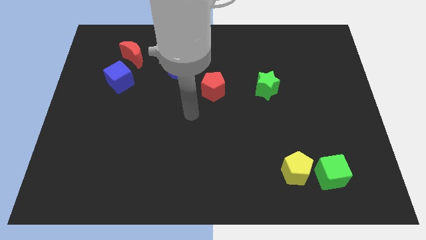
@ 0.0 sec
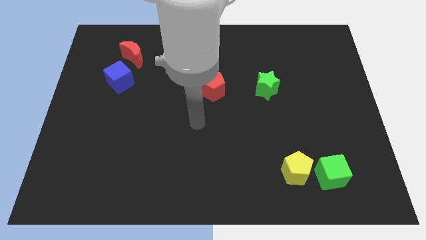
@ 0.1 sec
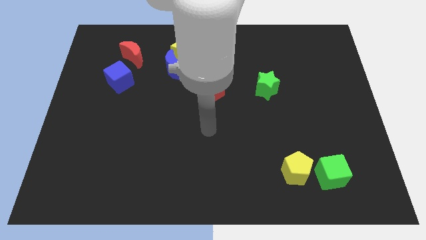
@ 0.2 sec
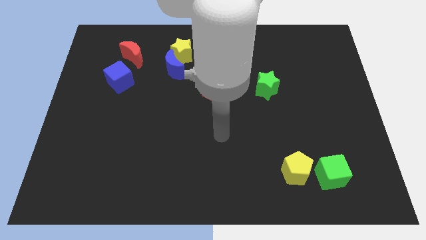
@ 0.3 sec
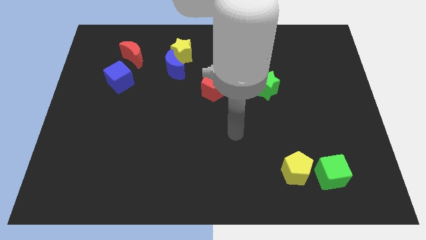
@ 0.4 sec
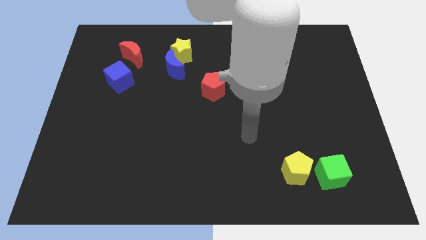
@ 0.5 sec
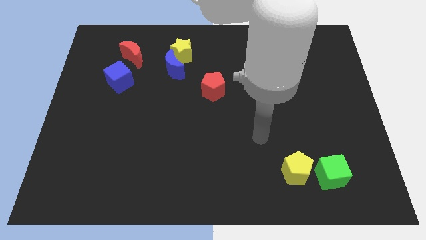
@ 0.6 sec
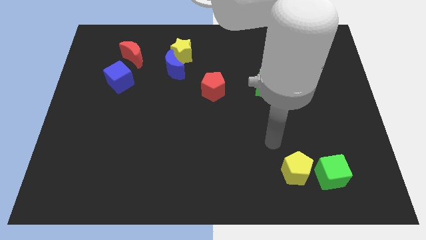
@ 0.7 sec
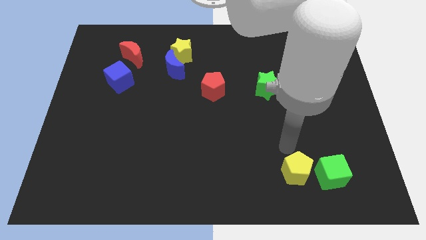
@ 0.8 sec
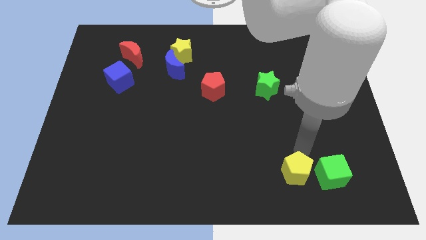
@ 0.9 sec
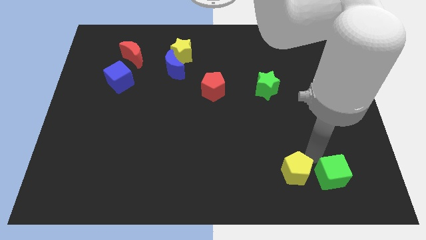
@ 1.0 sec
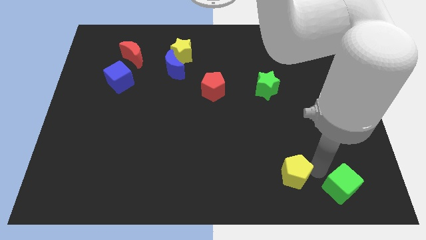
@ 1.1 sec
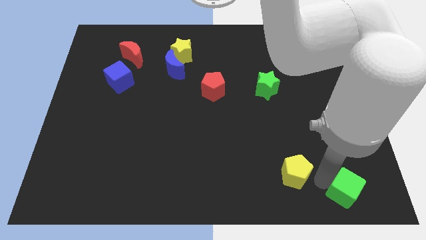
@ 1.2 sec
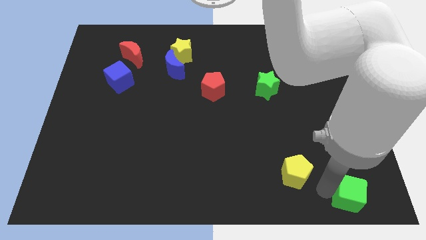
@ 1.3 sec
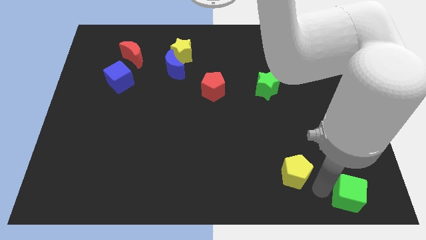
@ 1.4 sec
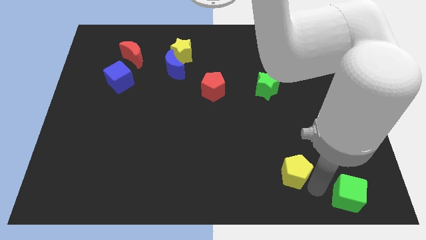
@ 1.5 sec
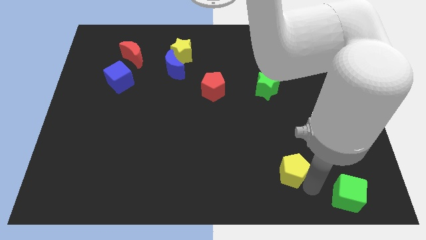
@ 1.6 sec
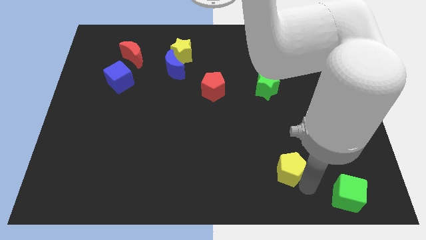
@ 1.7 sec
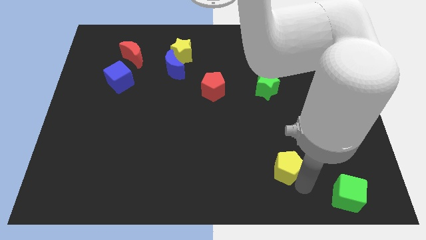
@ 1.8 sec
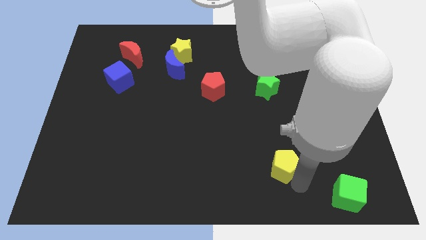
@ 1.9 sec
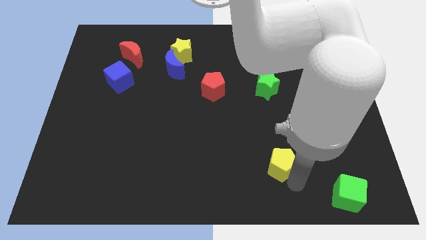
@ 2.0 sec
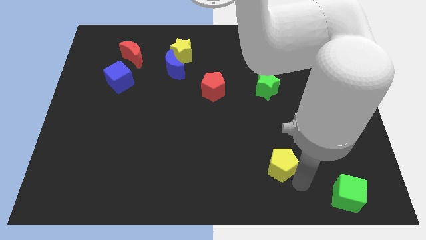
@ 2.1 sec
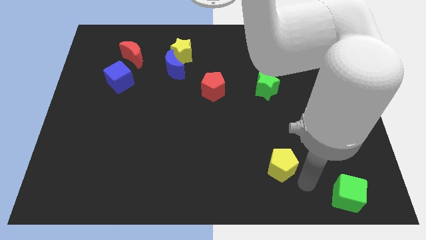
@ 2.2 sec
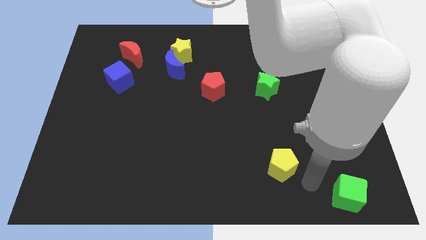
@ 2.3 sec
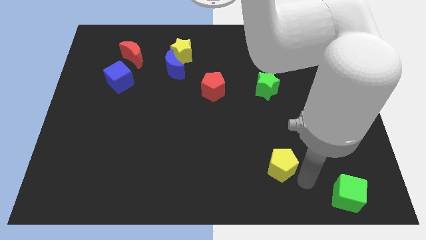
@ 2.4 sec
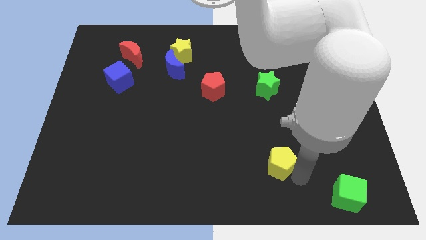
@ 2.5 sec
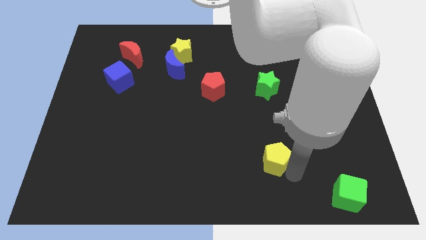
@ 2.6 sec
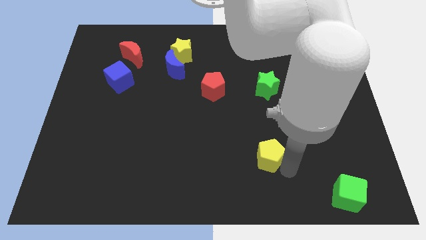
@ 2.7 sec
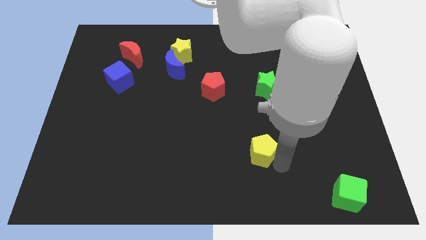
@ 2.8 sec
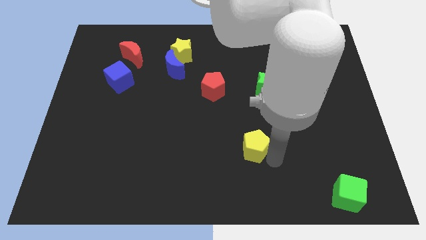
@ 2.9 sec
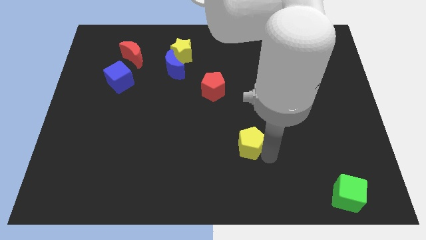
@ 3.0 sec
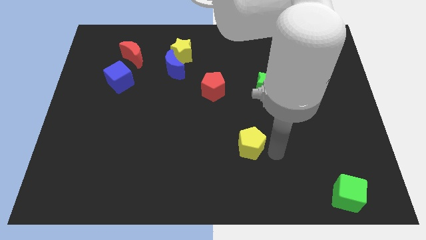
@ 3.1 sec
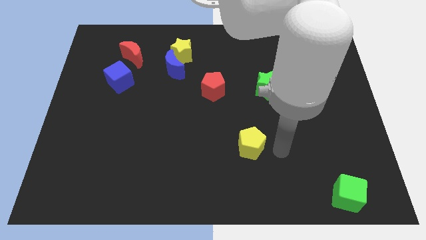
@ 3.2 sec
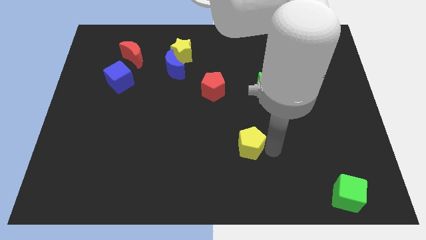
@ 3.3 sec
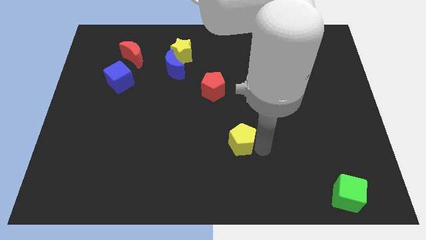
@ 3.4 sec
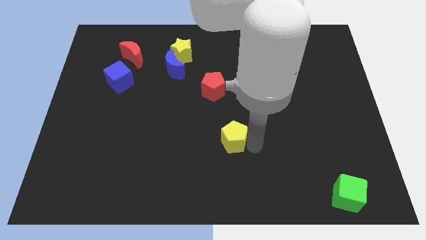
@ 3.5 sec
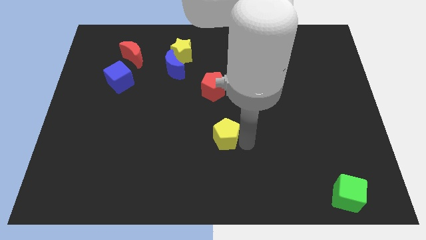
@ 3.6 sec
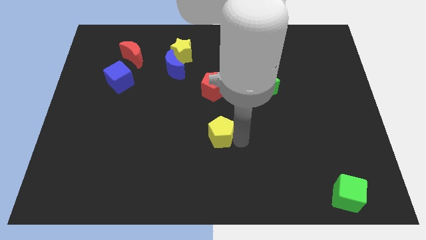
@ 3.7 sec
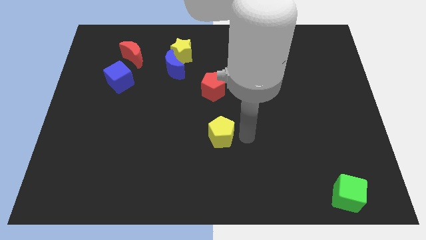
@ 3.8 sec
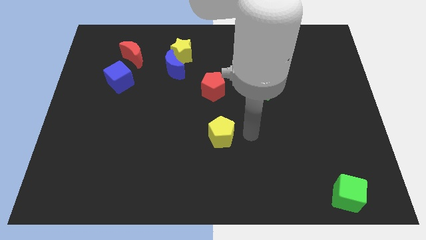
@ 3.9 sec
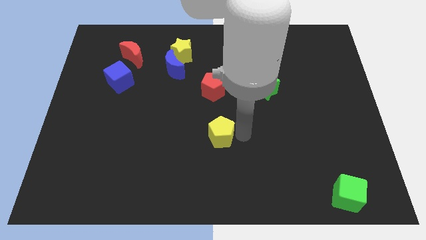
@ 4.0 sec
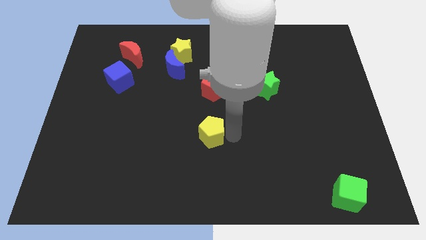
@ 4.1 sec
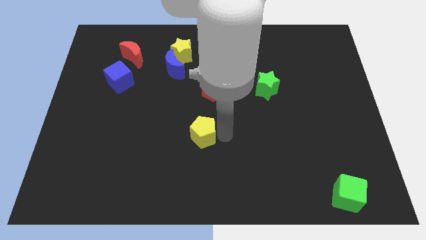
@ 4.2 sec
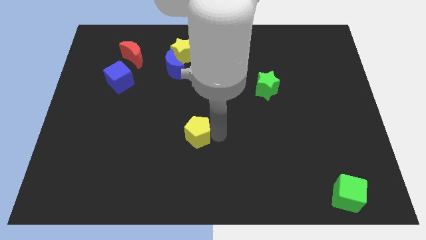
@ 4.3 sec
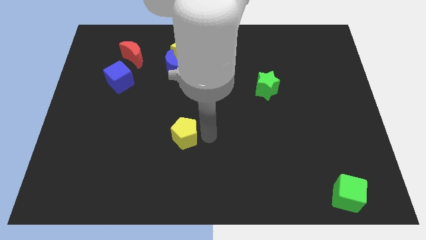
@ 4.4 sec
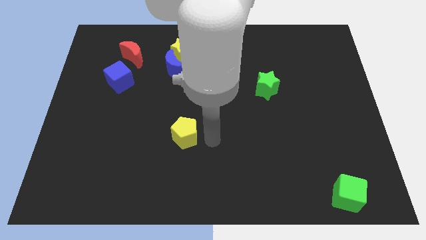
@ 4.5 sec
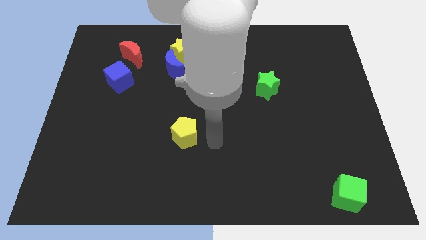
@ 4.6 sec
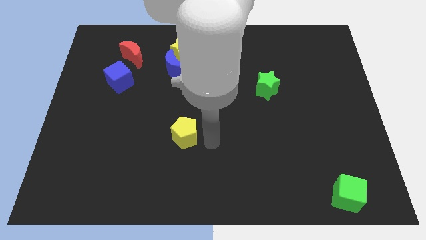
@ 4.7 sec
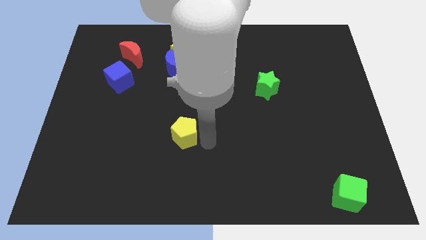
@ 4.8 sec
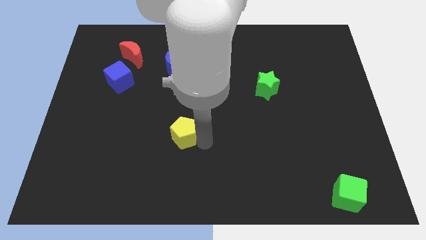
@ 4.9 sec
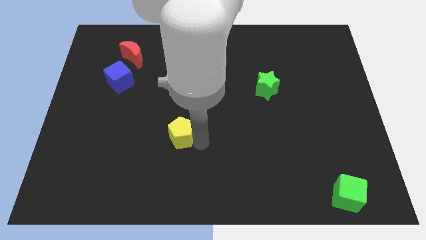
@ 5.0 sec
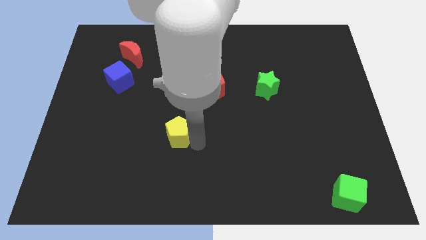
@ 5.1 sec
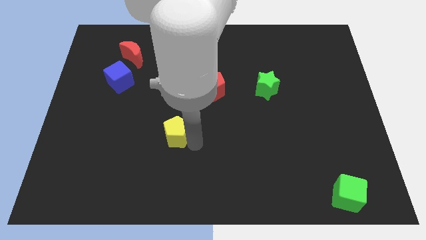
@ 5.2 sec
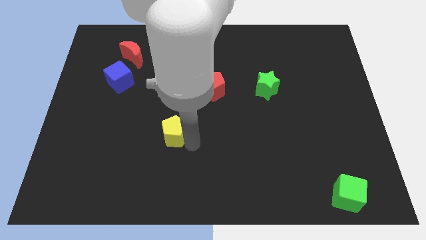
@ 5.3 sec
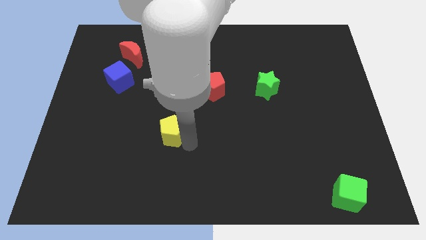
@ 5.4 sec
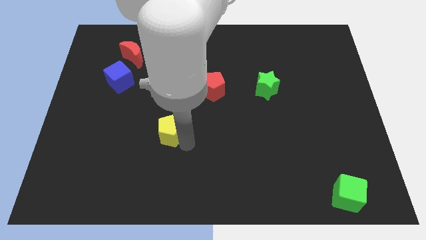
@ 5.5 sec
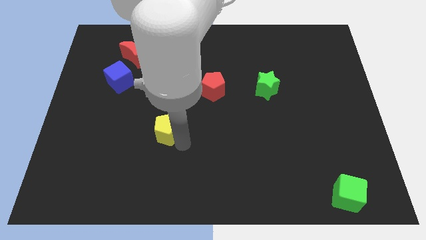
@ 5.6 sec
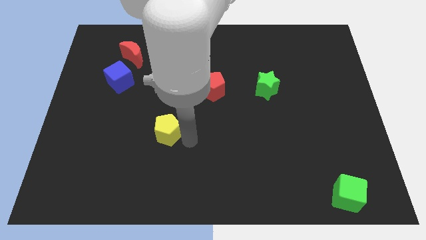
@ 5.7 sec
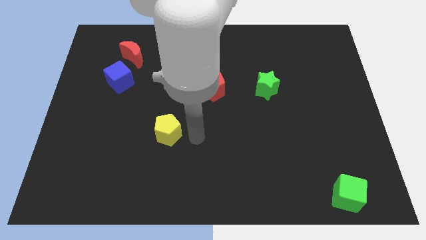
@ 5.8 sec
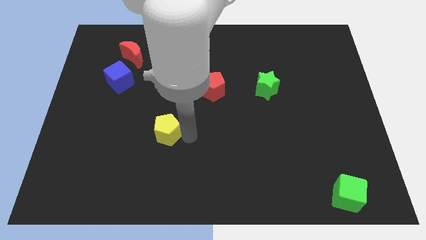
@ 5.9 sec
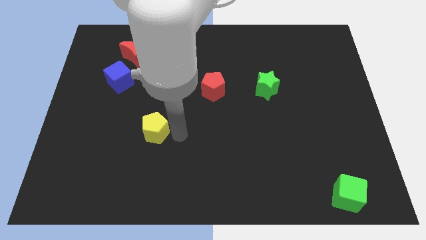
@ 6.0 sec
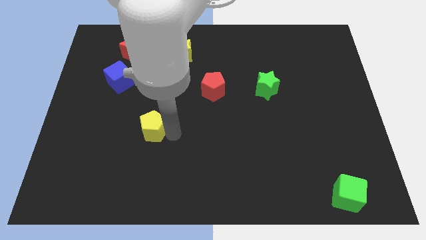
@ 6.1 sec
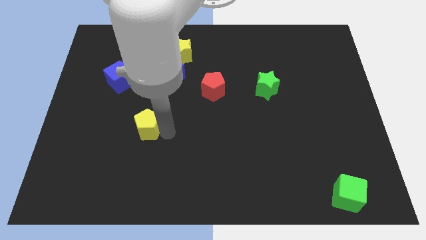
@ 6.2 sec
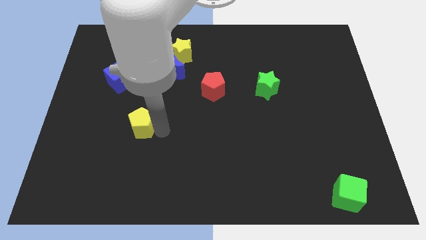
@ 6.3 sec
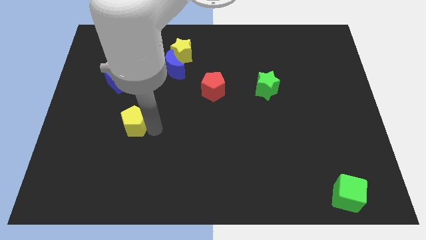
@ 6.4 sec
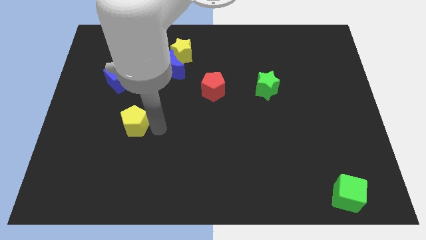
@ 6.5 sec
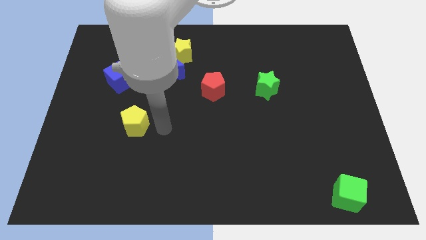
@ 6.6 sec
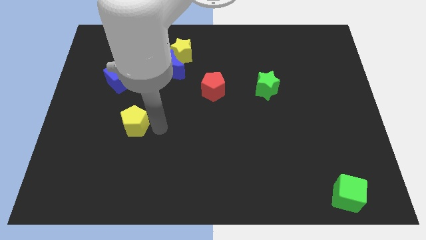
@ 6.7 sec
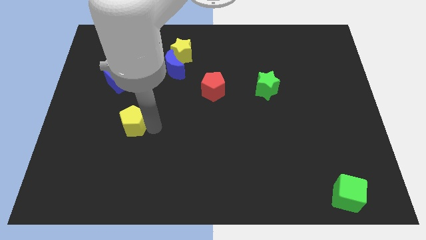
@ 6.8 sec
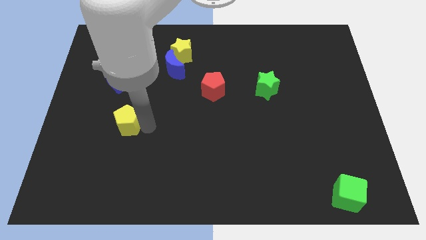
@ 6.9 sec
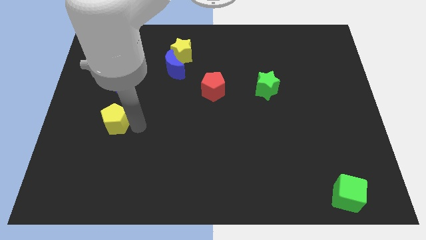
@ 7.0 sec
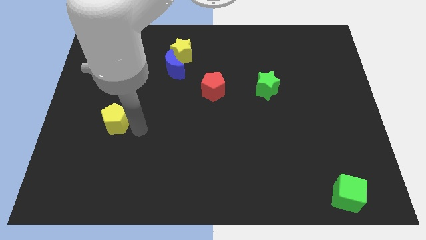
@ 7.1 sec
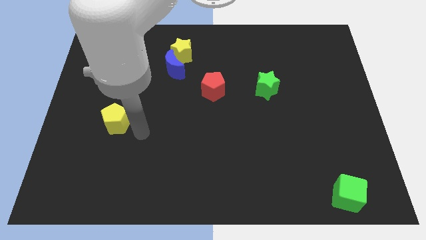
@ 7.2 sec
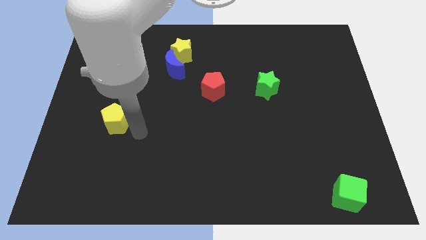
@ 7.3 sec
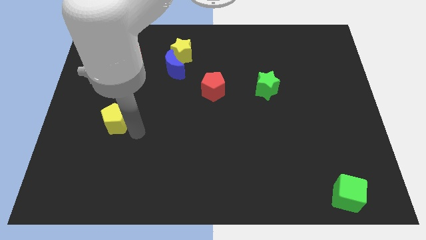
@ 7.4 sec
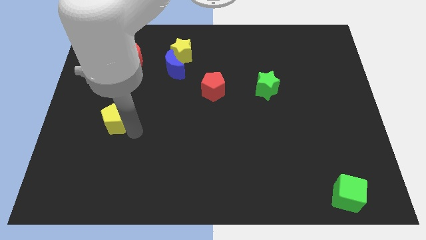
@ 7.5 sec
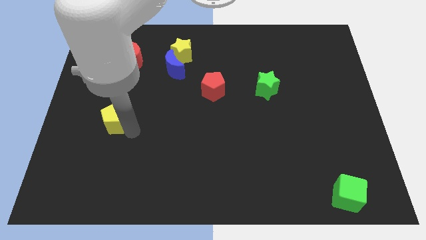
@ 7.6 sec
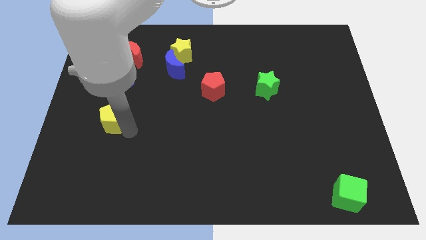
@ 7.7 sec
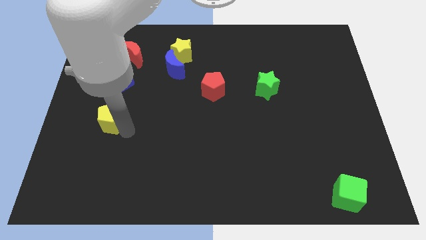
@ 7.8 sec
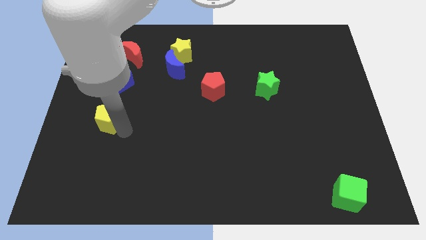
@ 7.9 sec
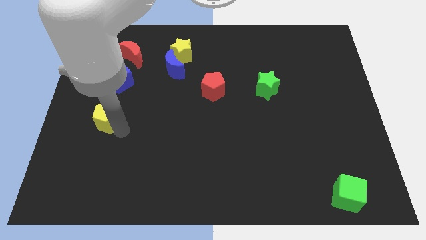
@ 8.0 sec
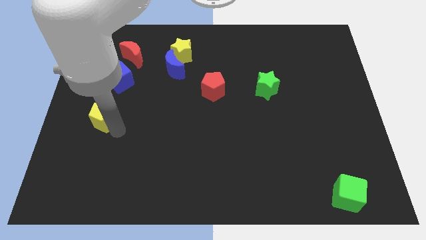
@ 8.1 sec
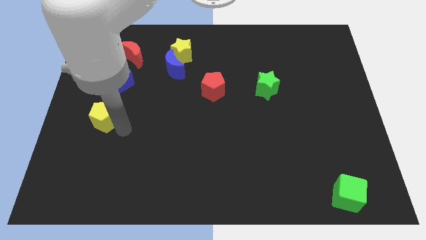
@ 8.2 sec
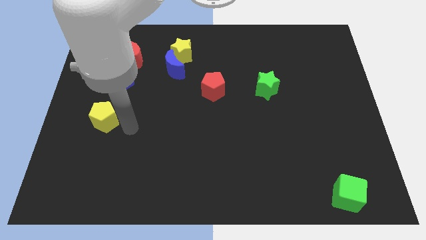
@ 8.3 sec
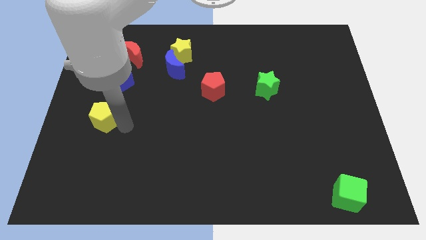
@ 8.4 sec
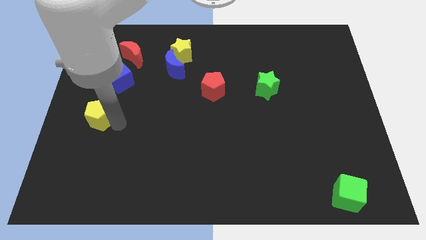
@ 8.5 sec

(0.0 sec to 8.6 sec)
move the yellow pentagon to the center left
